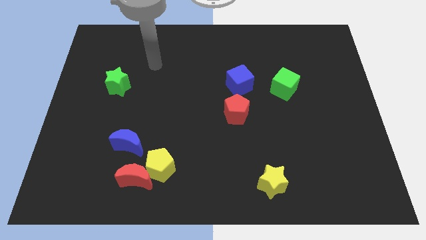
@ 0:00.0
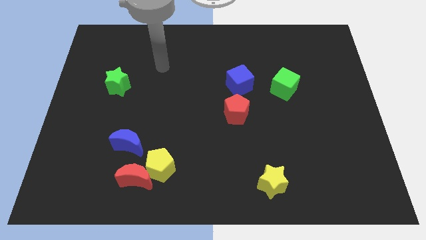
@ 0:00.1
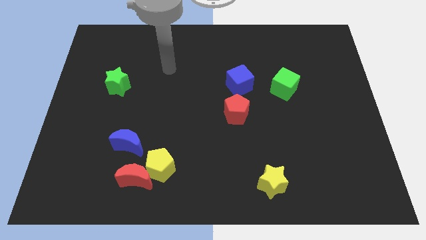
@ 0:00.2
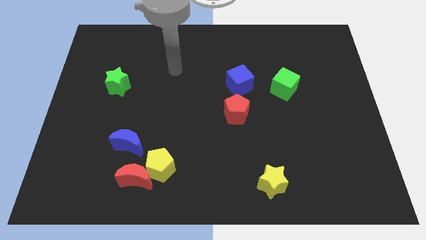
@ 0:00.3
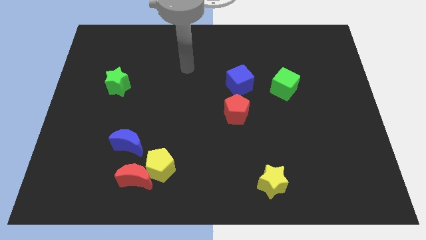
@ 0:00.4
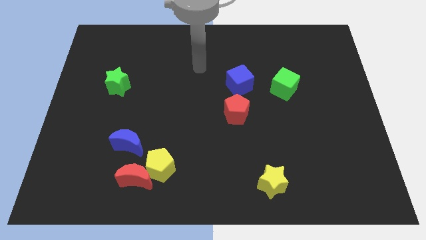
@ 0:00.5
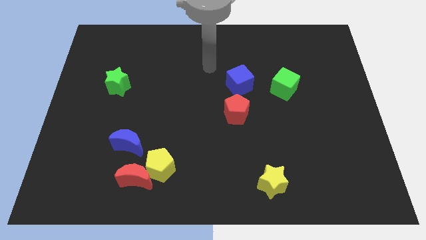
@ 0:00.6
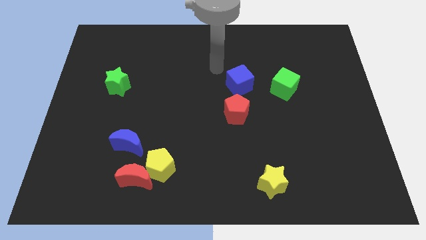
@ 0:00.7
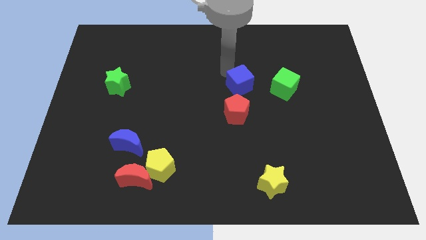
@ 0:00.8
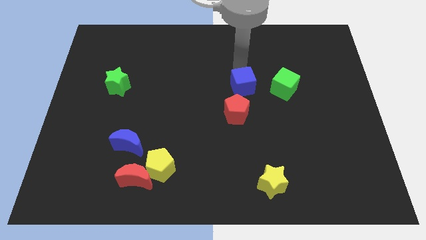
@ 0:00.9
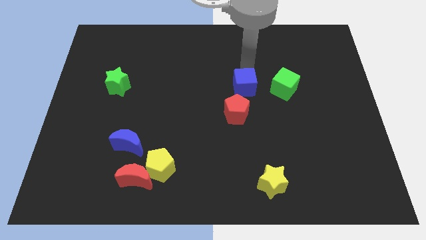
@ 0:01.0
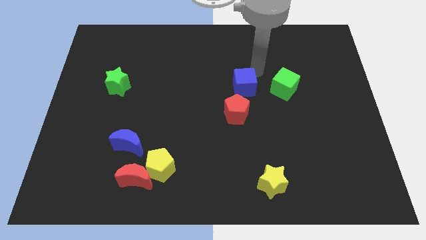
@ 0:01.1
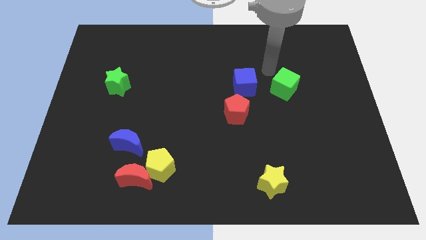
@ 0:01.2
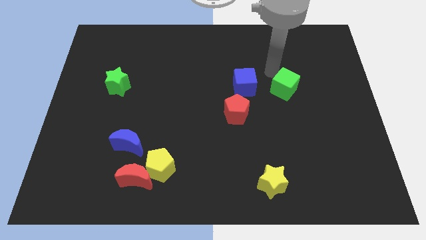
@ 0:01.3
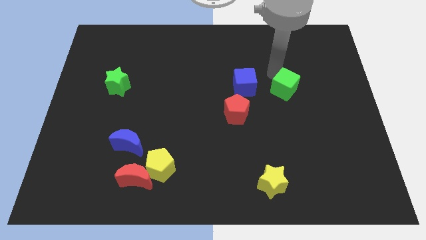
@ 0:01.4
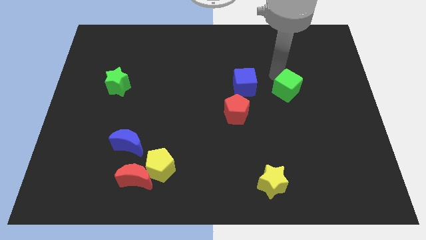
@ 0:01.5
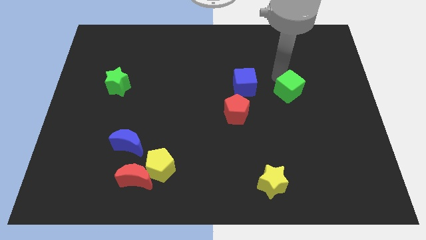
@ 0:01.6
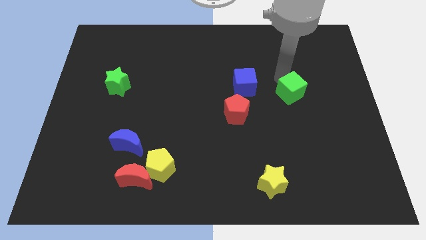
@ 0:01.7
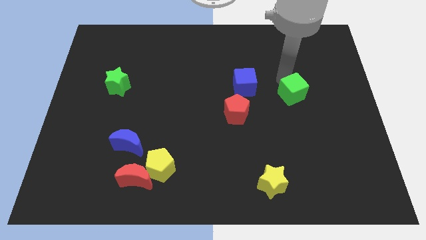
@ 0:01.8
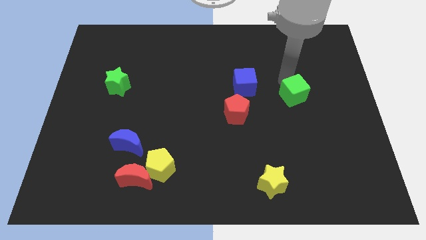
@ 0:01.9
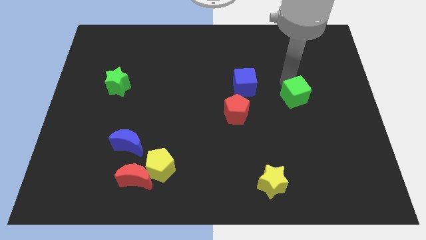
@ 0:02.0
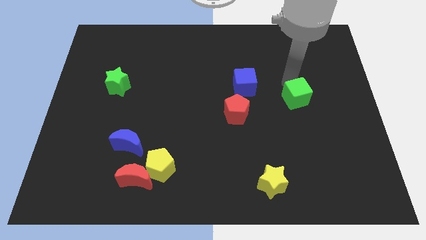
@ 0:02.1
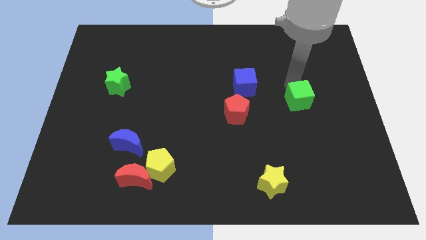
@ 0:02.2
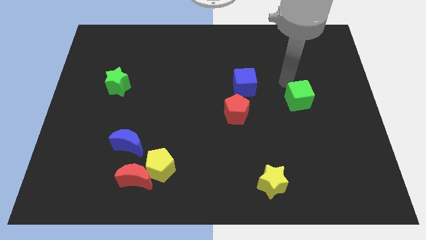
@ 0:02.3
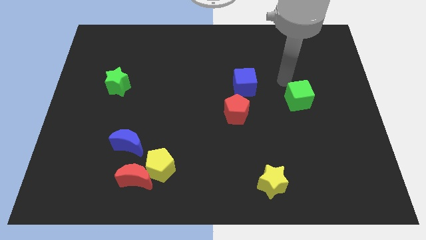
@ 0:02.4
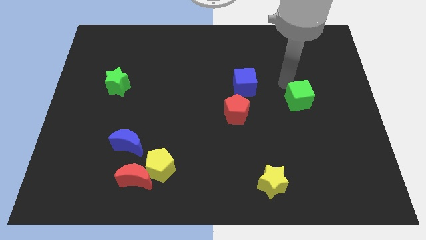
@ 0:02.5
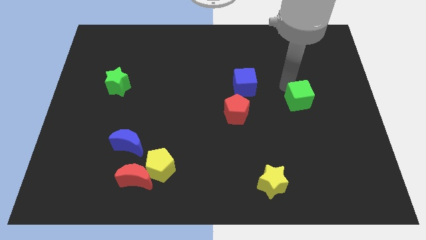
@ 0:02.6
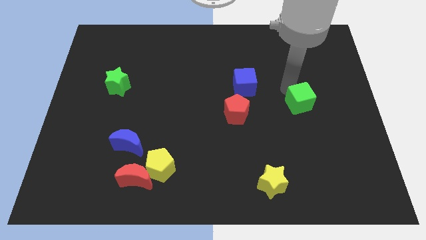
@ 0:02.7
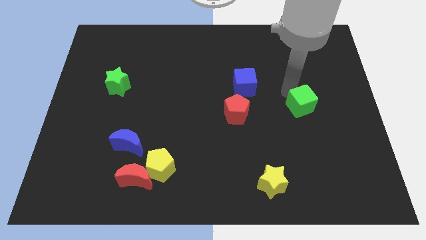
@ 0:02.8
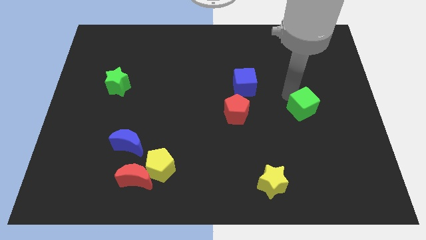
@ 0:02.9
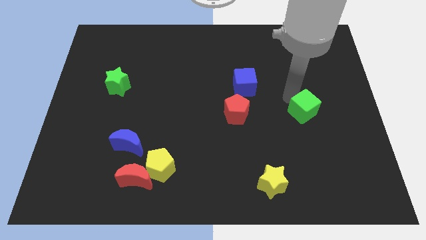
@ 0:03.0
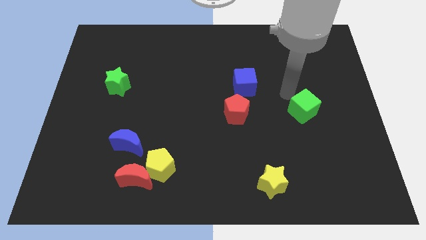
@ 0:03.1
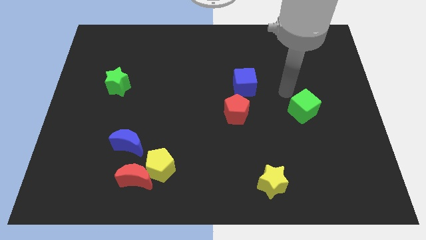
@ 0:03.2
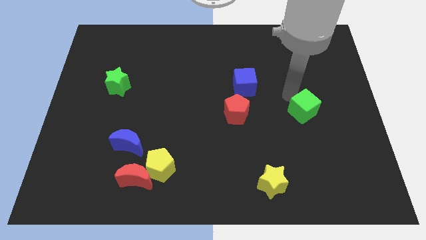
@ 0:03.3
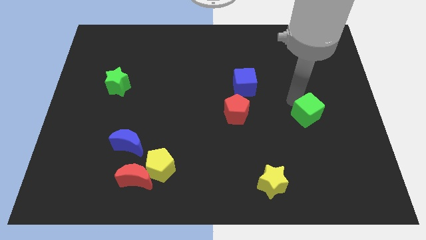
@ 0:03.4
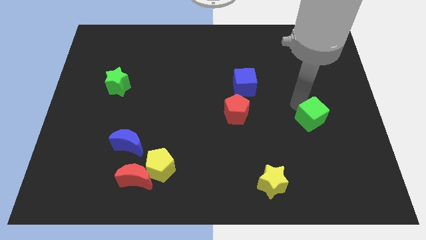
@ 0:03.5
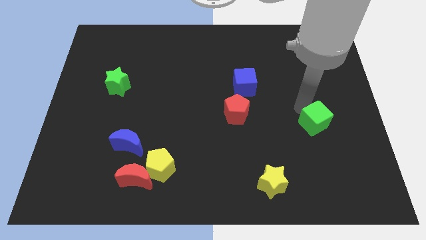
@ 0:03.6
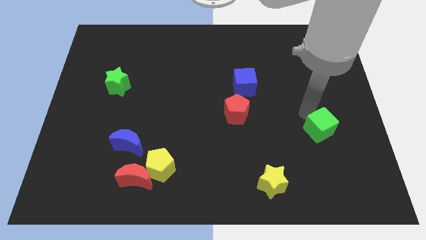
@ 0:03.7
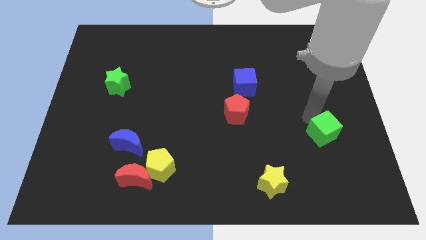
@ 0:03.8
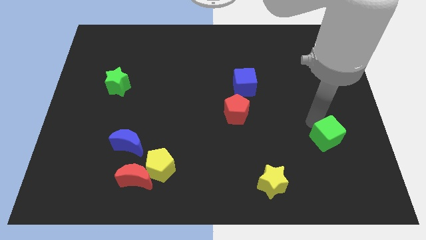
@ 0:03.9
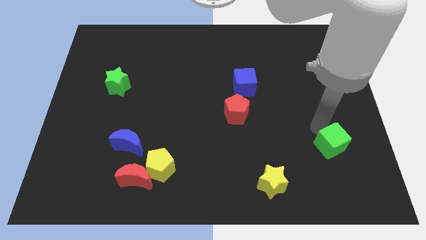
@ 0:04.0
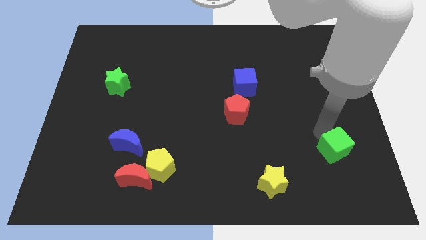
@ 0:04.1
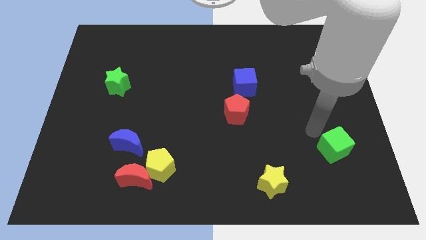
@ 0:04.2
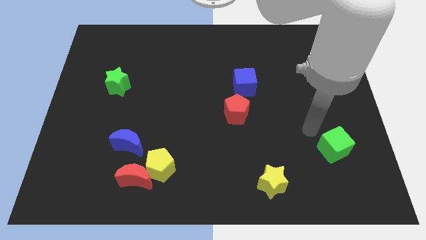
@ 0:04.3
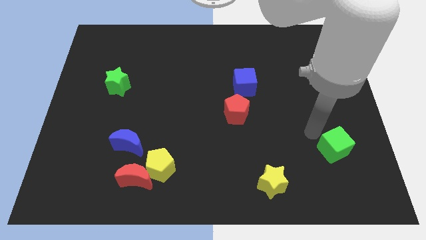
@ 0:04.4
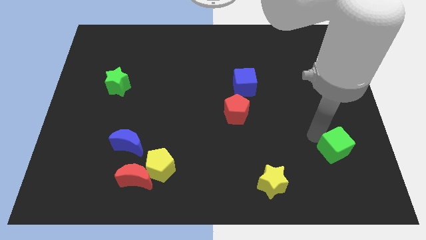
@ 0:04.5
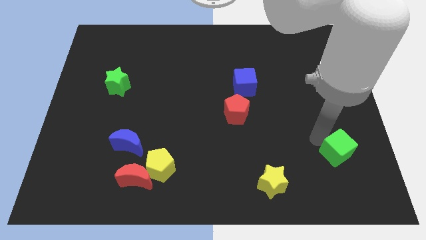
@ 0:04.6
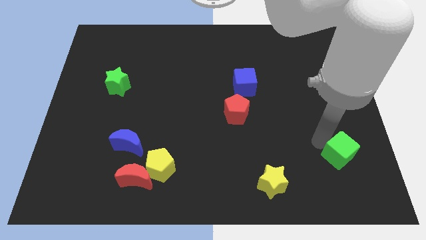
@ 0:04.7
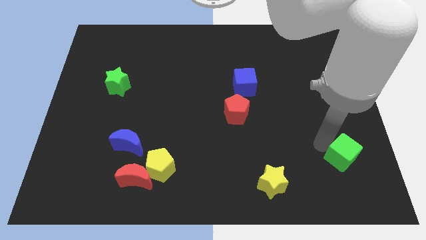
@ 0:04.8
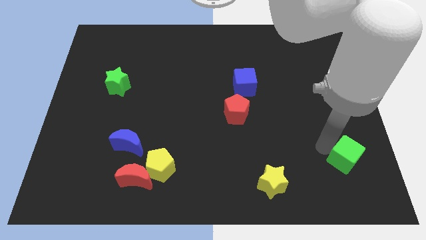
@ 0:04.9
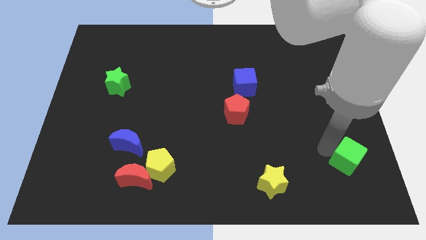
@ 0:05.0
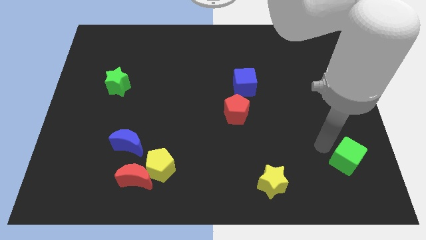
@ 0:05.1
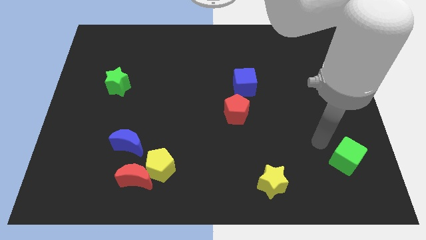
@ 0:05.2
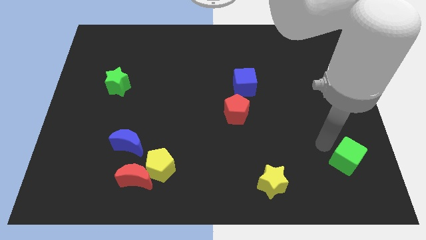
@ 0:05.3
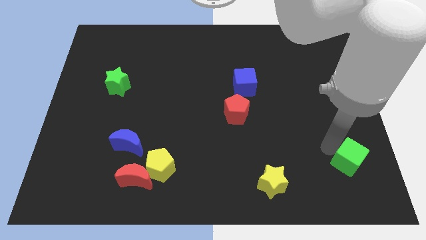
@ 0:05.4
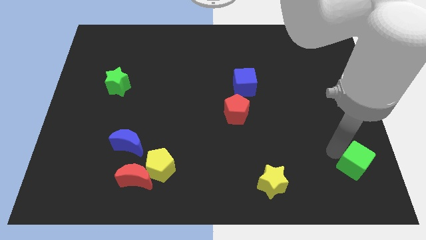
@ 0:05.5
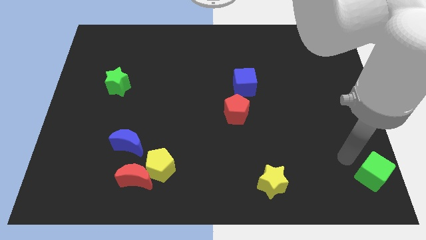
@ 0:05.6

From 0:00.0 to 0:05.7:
move the green cube to the bottom right of the board

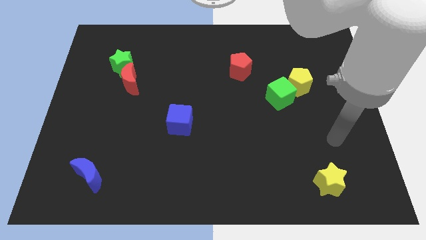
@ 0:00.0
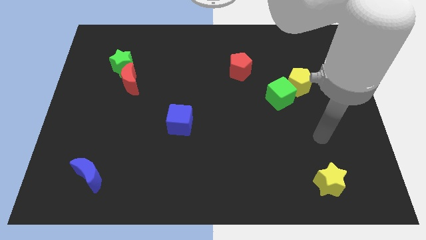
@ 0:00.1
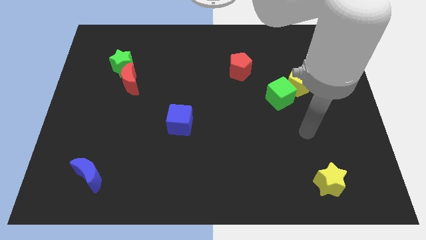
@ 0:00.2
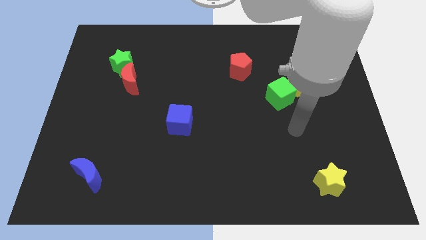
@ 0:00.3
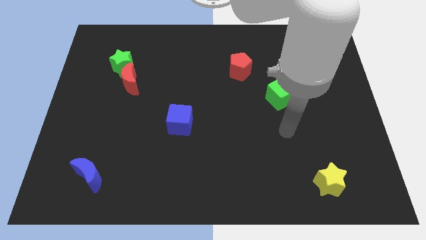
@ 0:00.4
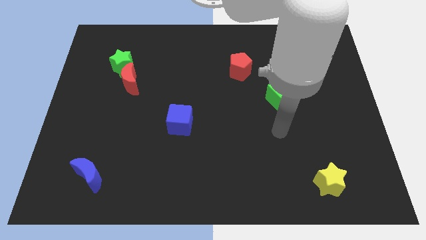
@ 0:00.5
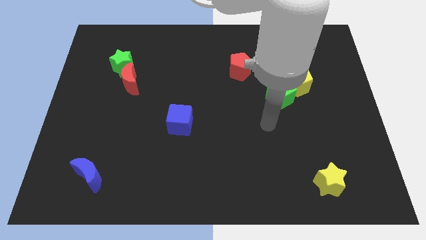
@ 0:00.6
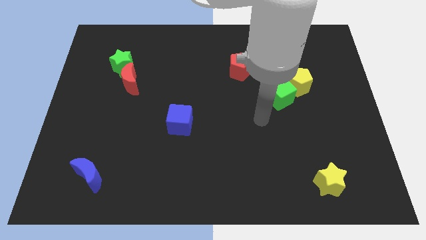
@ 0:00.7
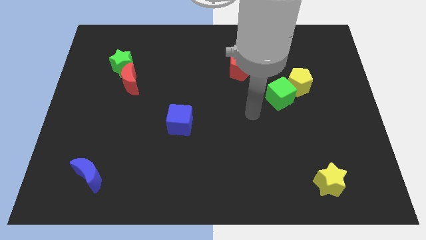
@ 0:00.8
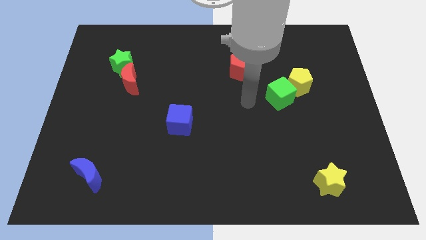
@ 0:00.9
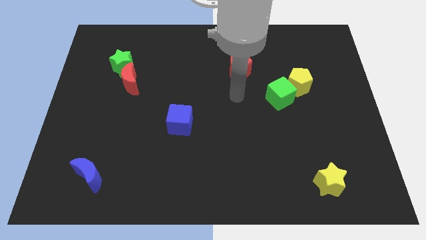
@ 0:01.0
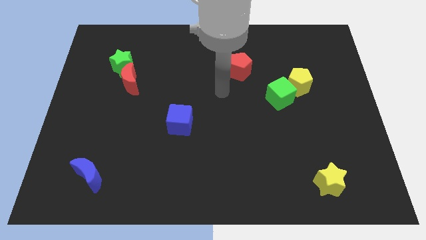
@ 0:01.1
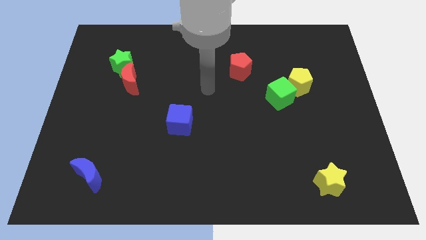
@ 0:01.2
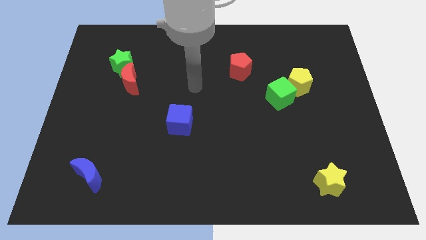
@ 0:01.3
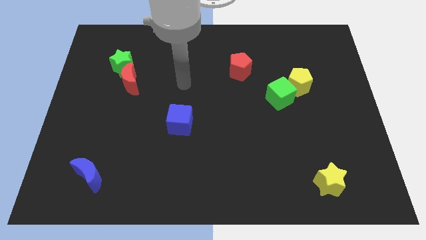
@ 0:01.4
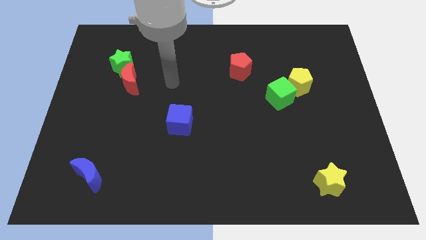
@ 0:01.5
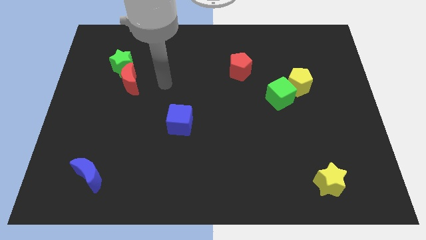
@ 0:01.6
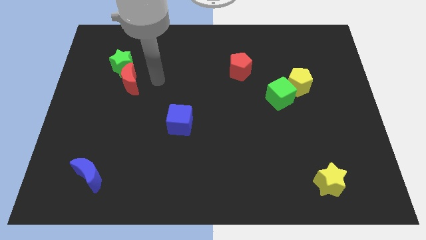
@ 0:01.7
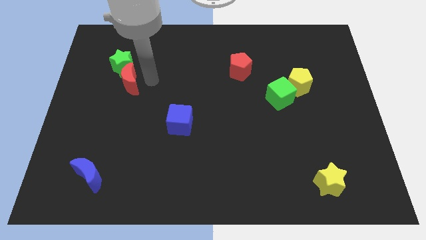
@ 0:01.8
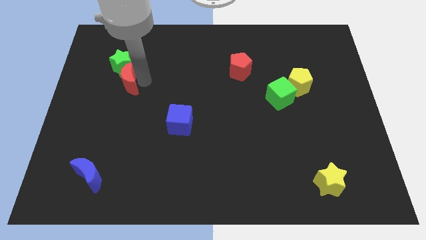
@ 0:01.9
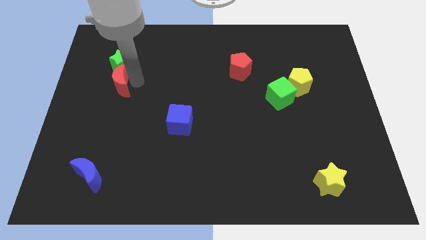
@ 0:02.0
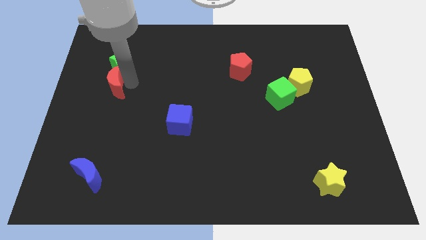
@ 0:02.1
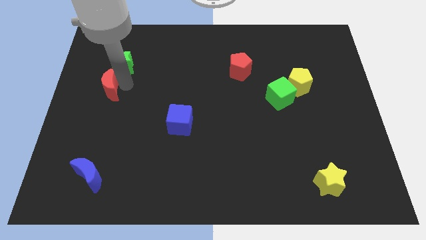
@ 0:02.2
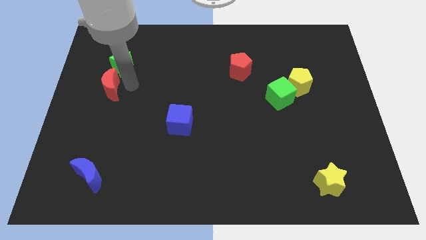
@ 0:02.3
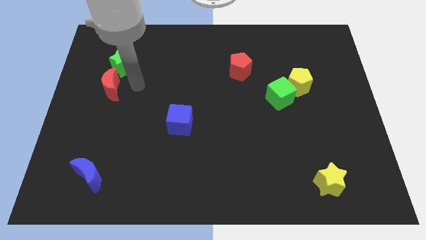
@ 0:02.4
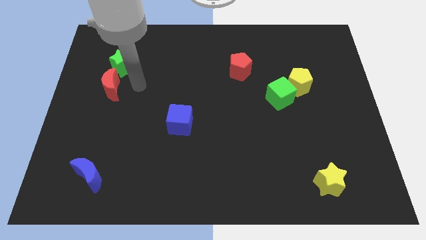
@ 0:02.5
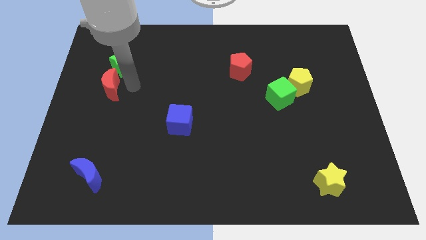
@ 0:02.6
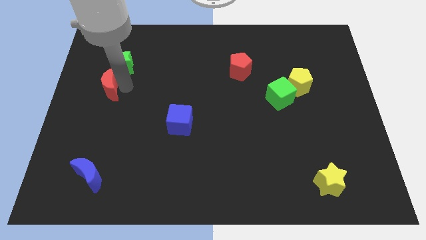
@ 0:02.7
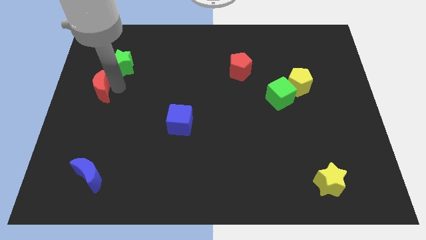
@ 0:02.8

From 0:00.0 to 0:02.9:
slide the red moon to the left side of the board
